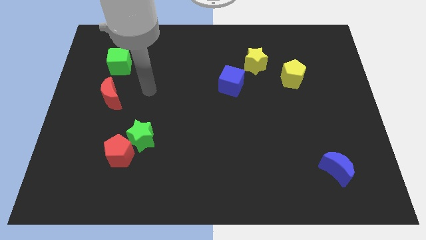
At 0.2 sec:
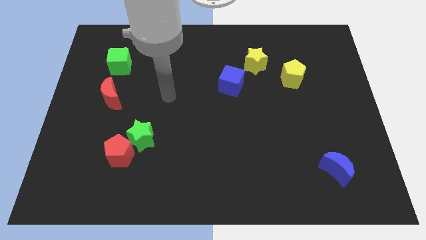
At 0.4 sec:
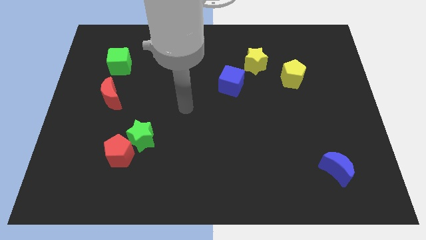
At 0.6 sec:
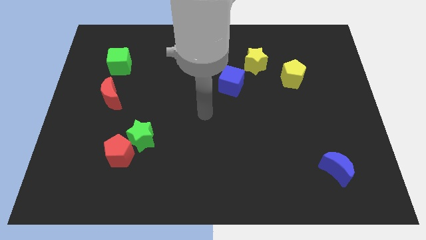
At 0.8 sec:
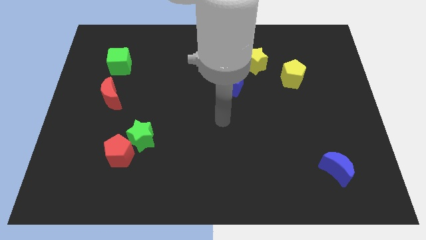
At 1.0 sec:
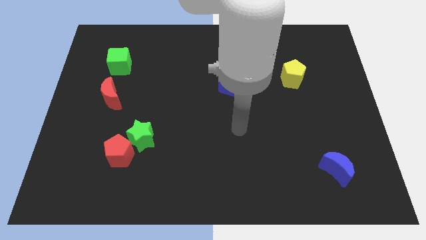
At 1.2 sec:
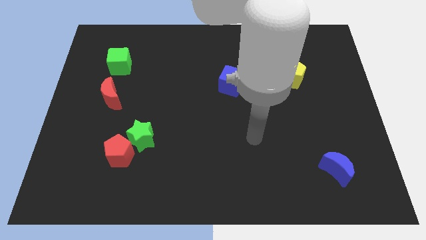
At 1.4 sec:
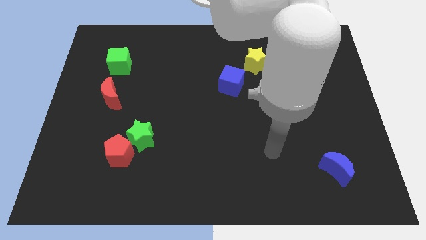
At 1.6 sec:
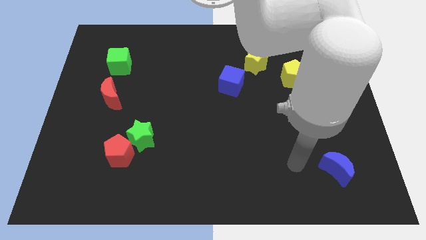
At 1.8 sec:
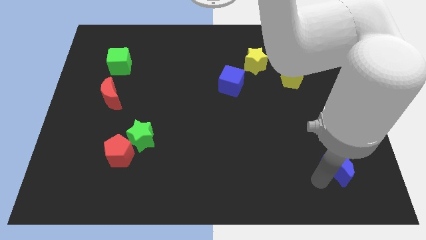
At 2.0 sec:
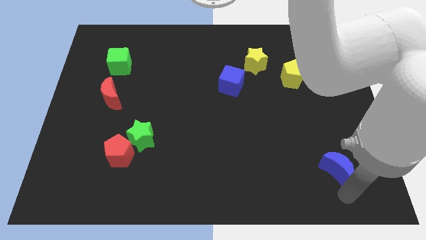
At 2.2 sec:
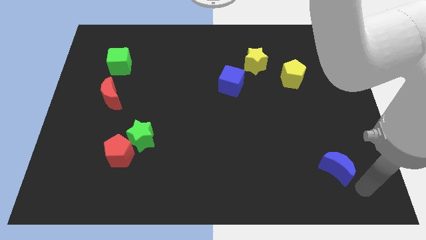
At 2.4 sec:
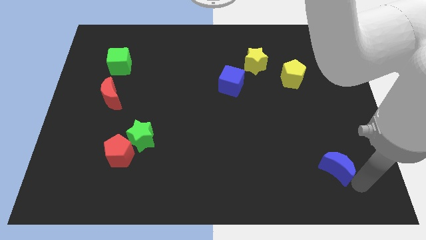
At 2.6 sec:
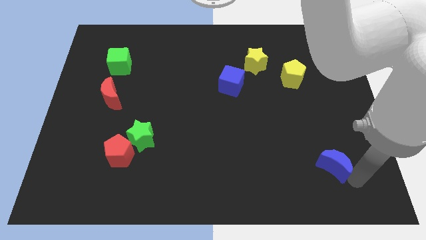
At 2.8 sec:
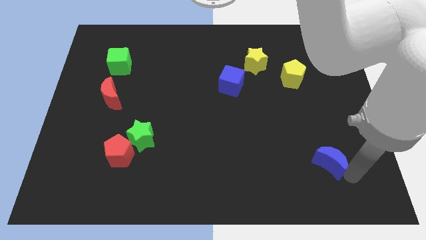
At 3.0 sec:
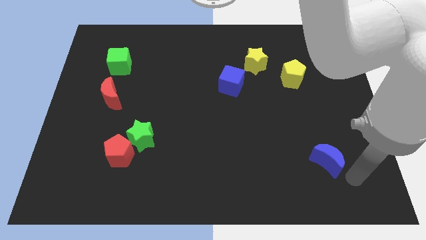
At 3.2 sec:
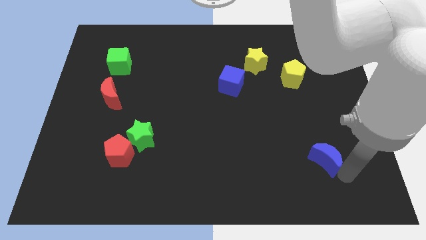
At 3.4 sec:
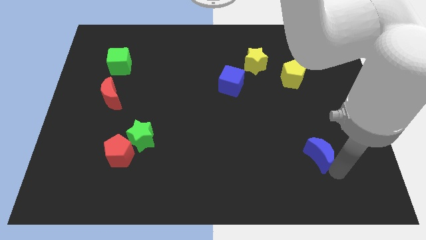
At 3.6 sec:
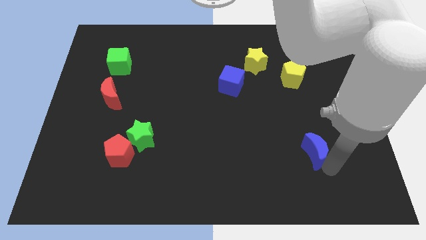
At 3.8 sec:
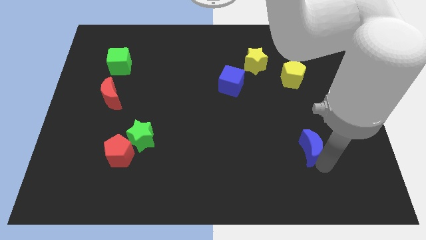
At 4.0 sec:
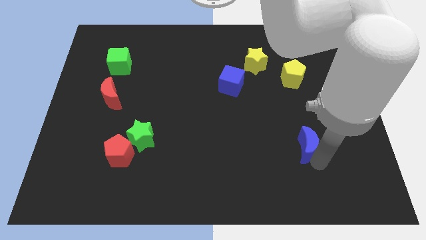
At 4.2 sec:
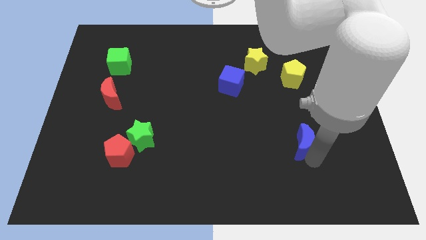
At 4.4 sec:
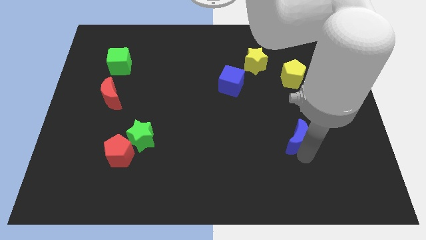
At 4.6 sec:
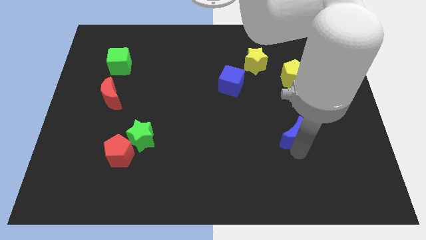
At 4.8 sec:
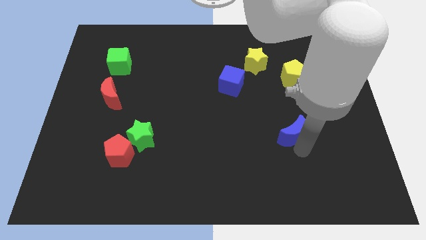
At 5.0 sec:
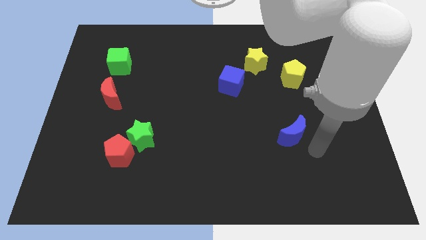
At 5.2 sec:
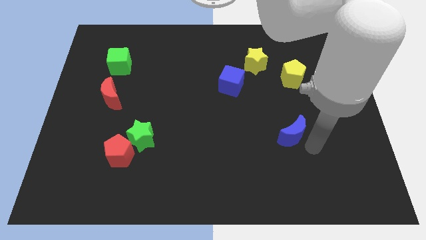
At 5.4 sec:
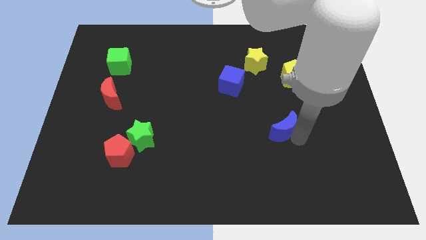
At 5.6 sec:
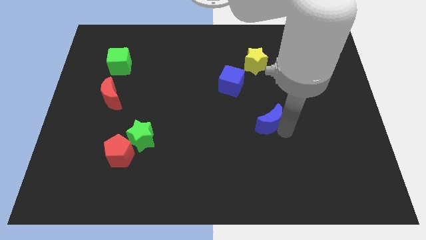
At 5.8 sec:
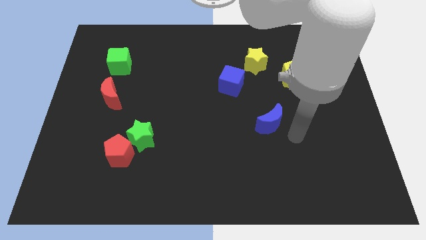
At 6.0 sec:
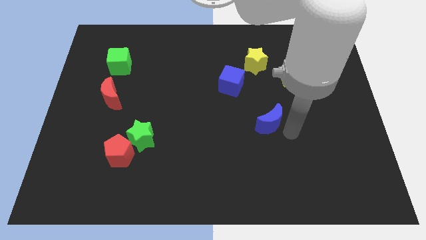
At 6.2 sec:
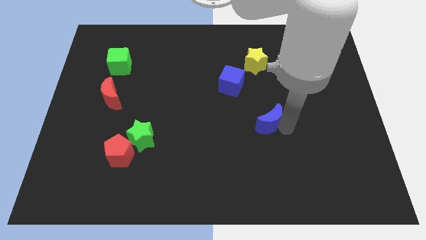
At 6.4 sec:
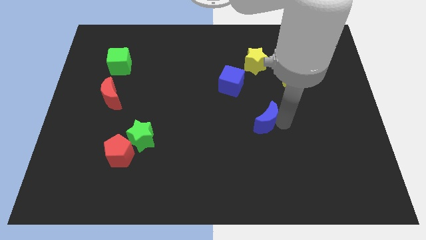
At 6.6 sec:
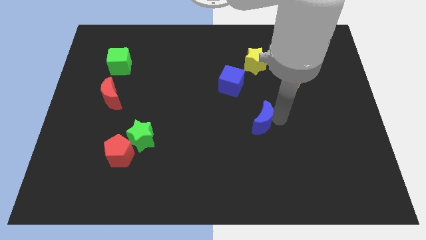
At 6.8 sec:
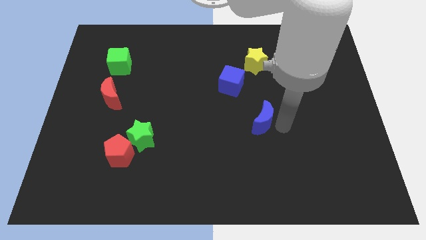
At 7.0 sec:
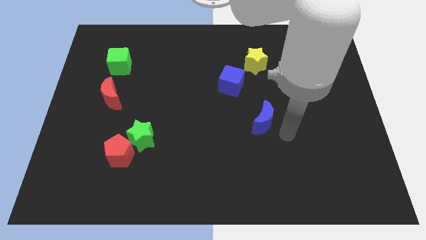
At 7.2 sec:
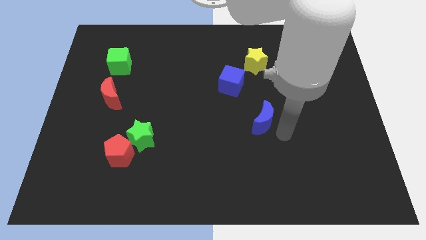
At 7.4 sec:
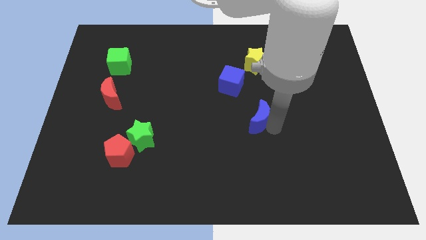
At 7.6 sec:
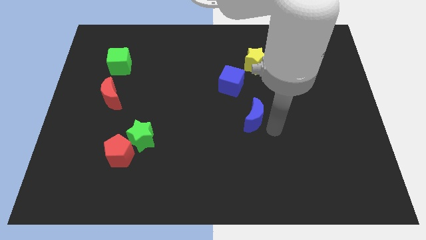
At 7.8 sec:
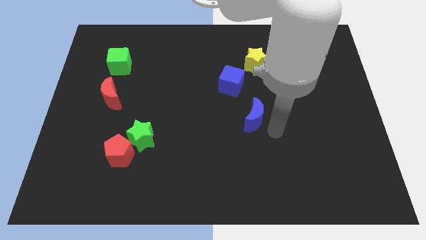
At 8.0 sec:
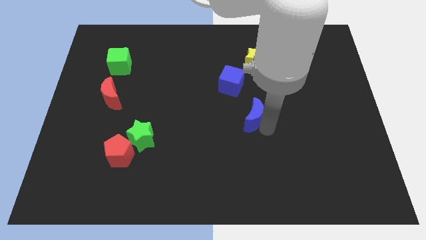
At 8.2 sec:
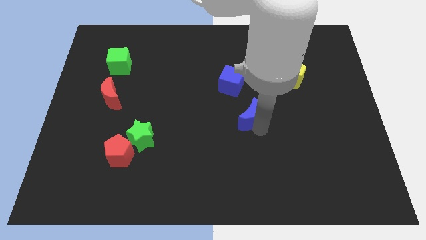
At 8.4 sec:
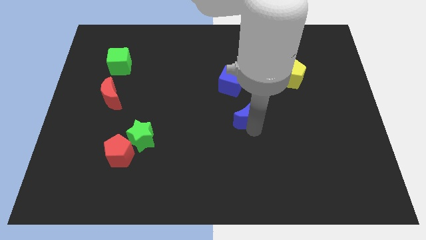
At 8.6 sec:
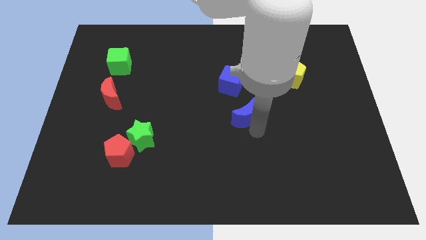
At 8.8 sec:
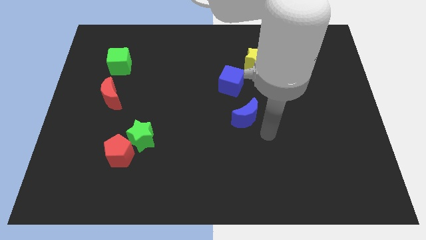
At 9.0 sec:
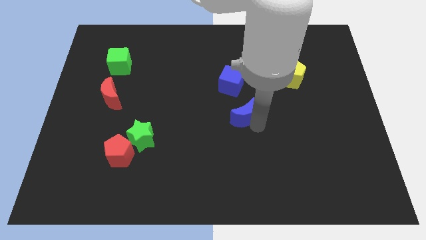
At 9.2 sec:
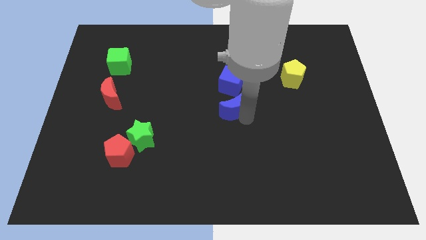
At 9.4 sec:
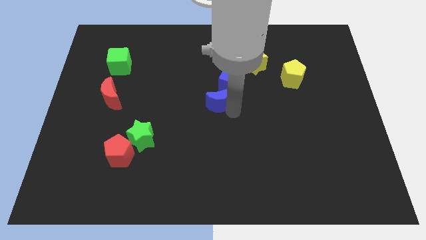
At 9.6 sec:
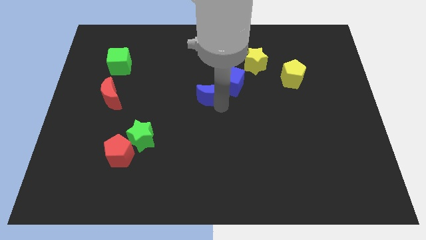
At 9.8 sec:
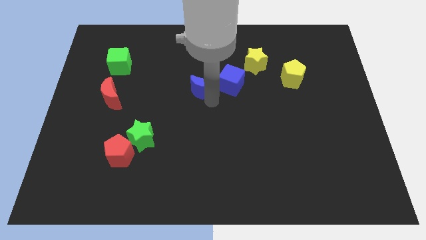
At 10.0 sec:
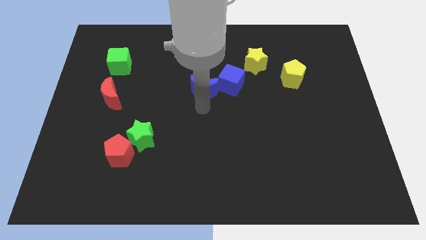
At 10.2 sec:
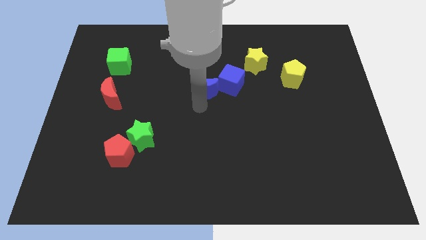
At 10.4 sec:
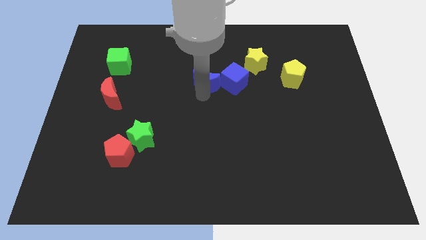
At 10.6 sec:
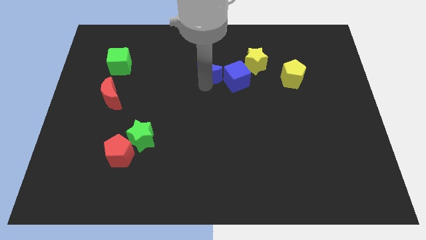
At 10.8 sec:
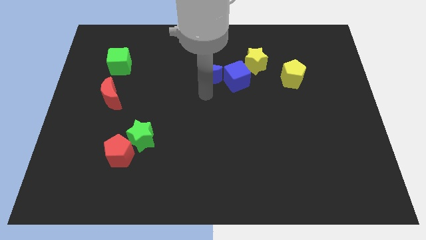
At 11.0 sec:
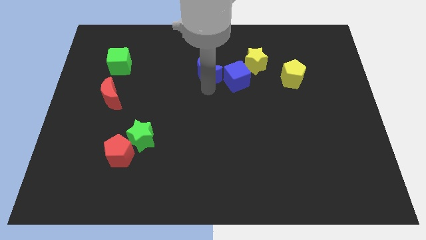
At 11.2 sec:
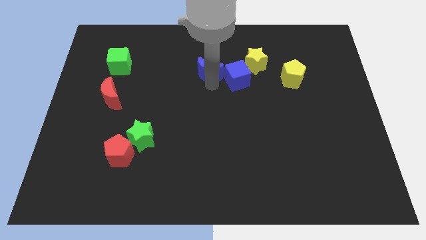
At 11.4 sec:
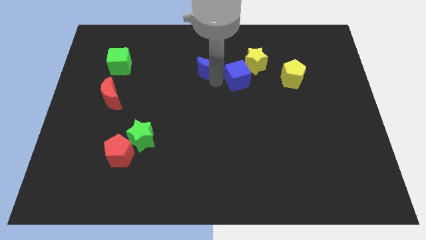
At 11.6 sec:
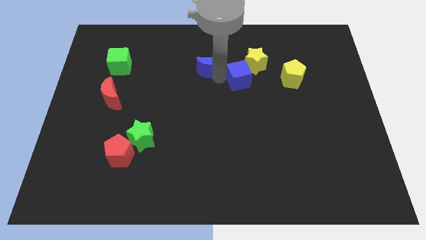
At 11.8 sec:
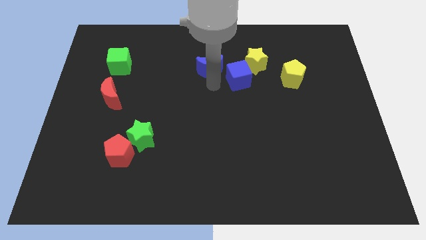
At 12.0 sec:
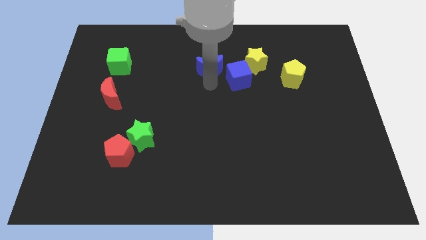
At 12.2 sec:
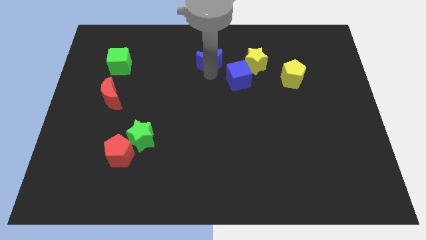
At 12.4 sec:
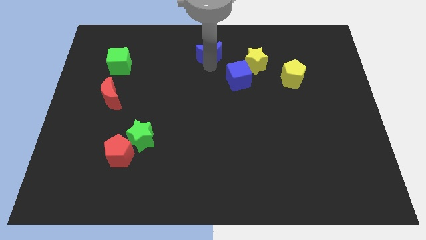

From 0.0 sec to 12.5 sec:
move the blue moon to the towards your base
